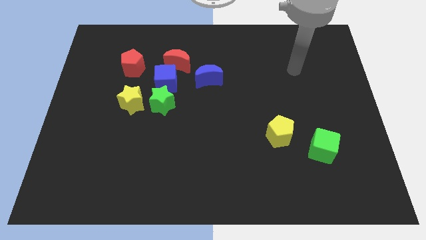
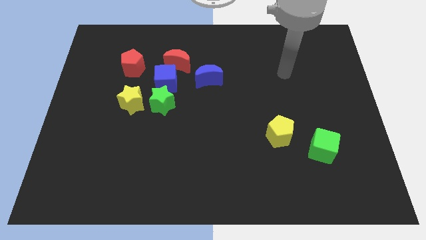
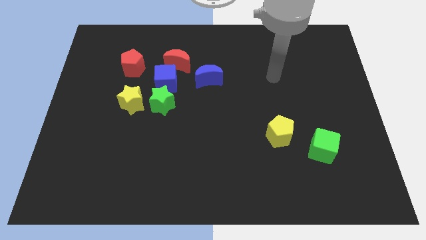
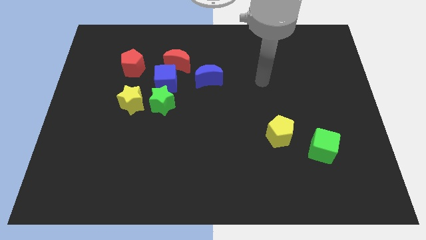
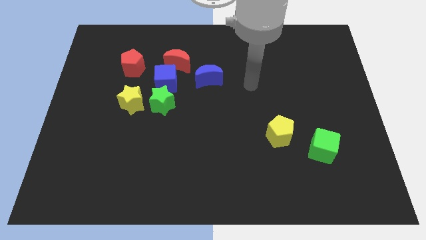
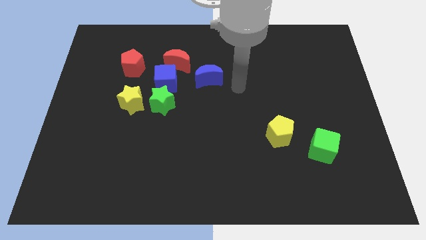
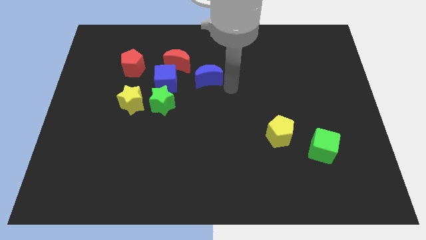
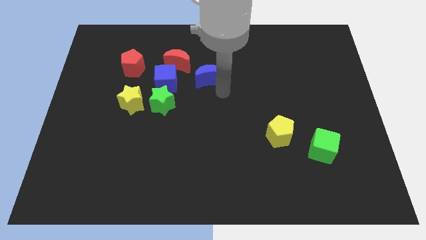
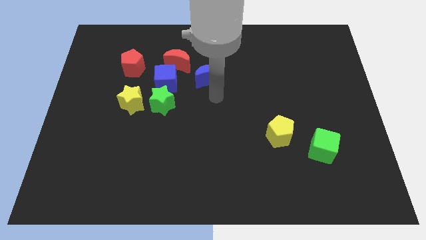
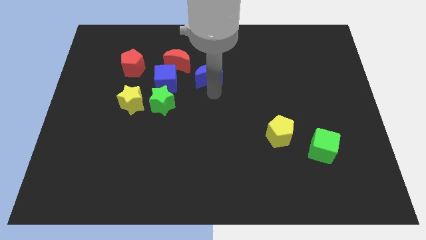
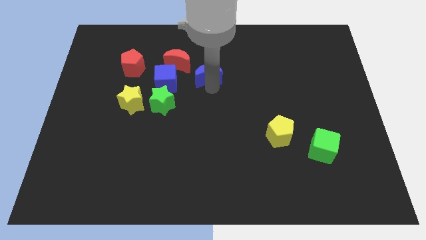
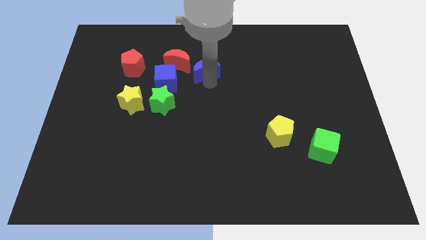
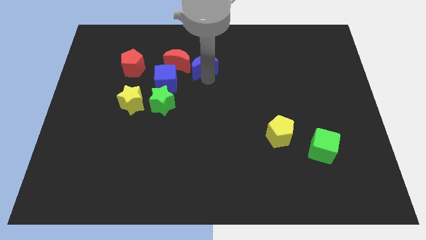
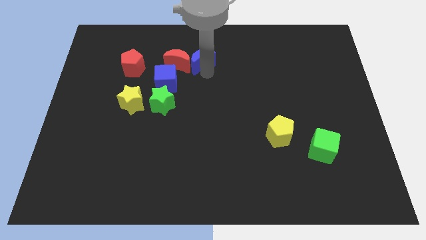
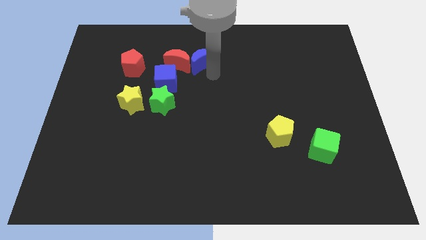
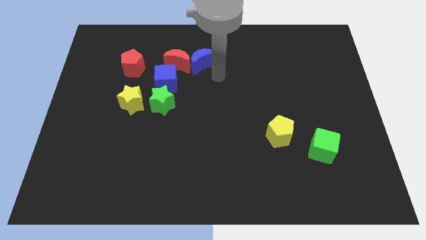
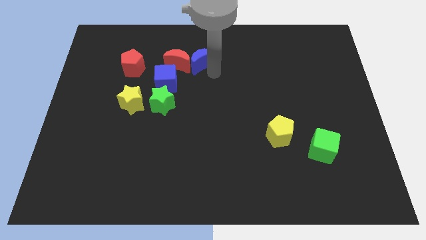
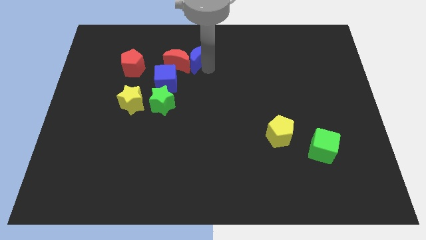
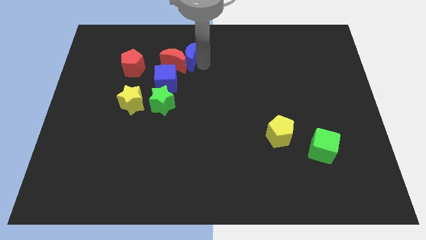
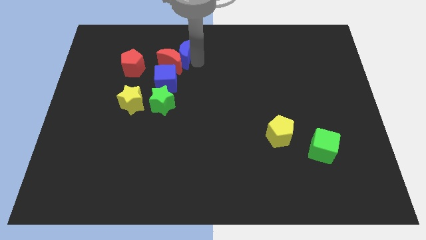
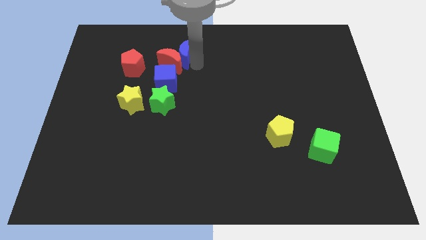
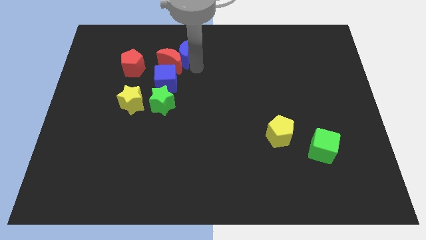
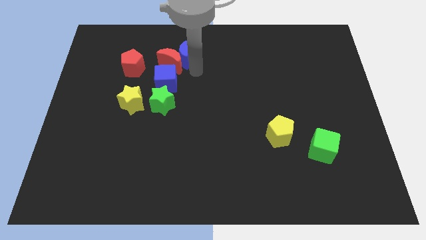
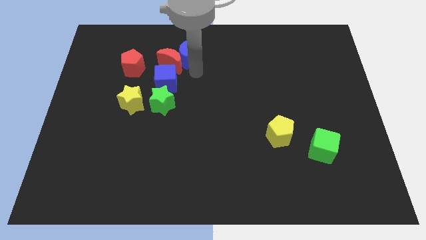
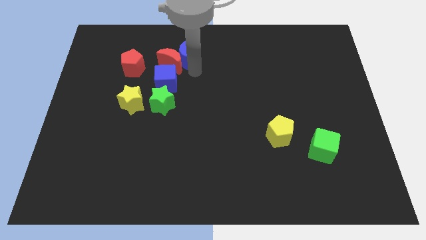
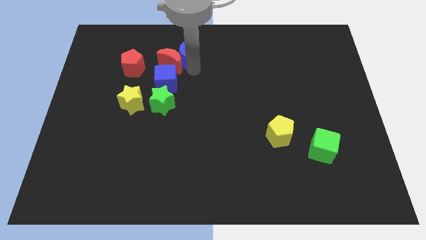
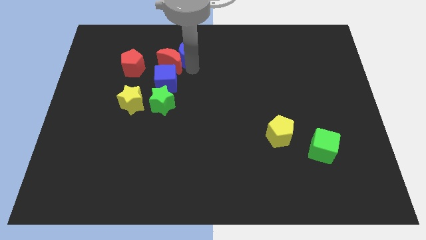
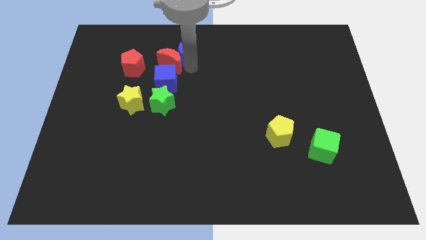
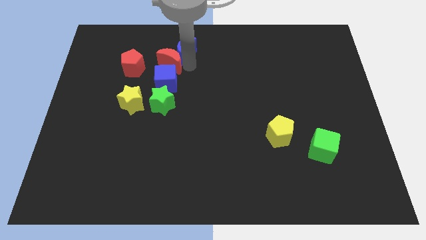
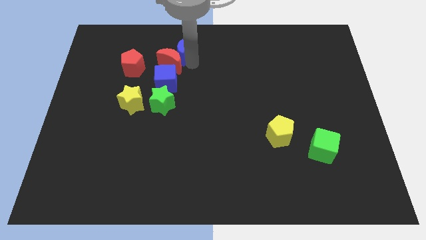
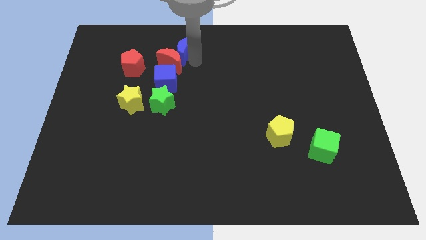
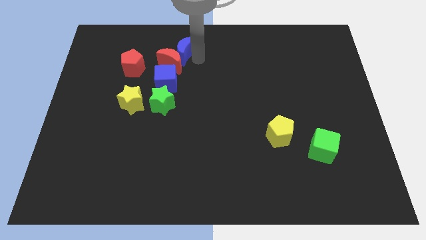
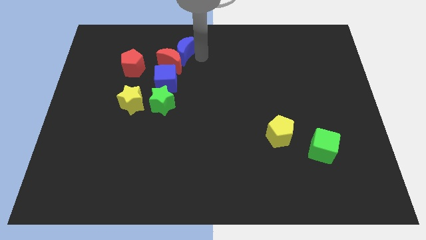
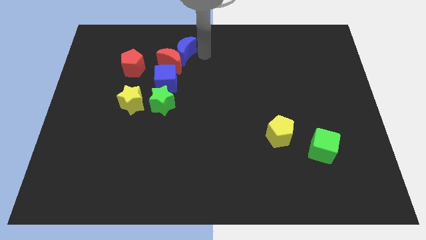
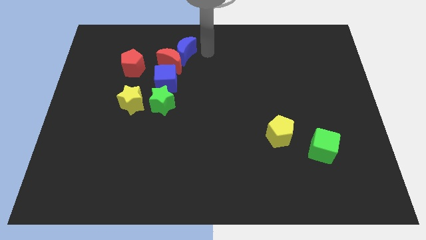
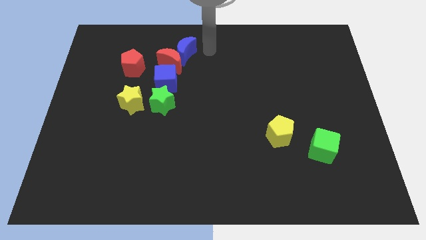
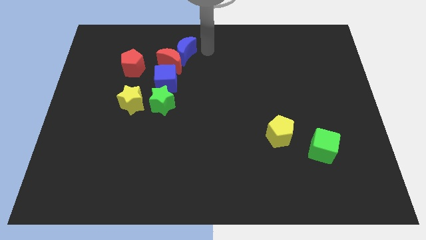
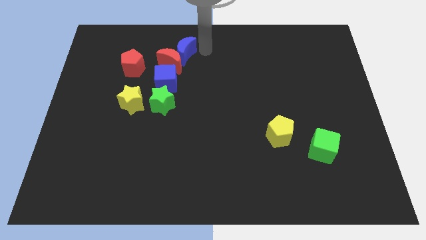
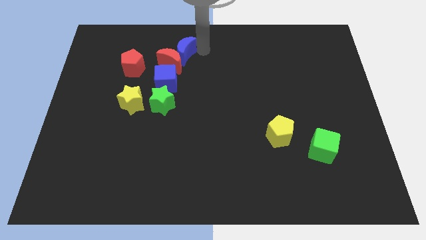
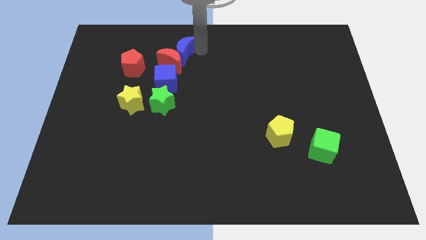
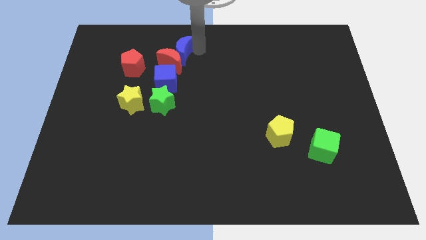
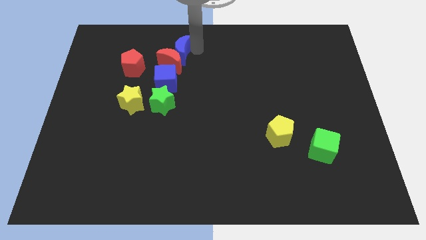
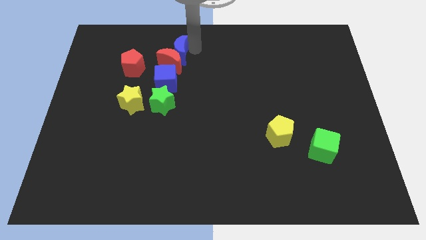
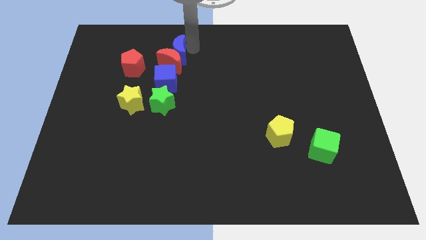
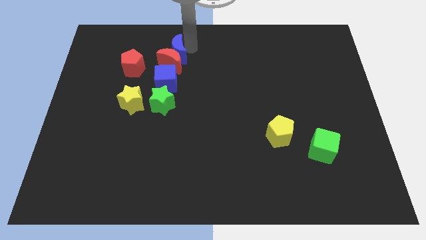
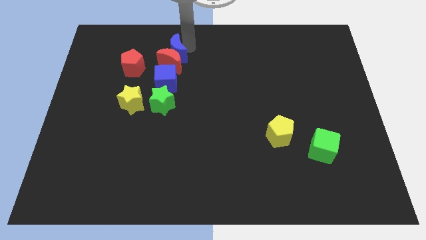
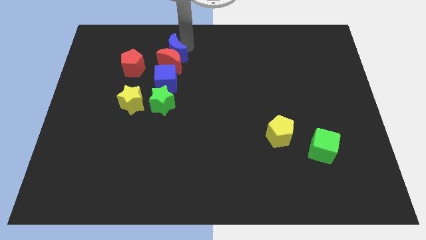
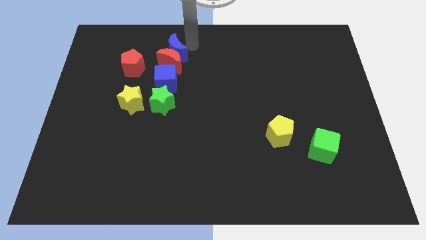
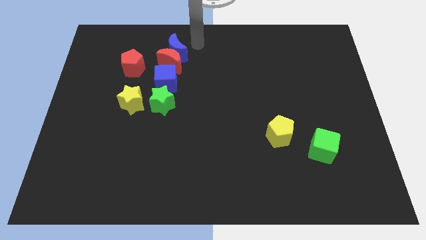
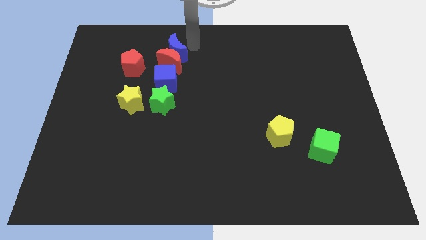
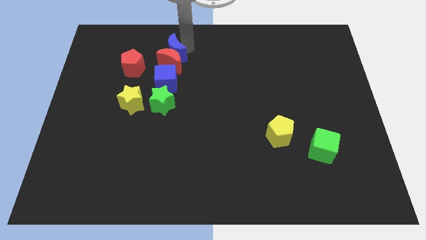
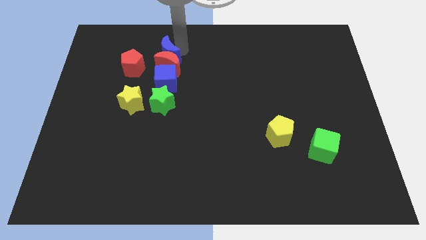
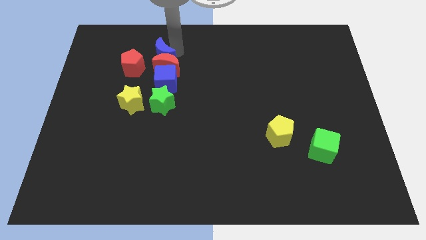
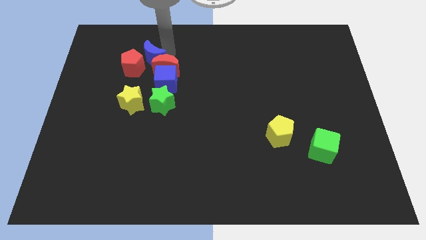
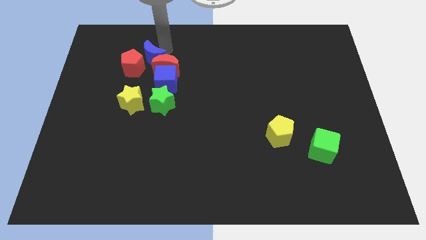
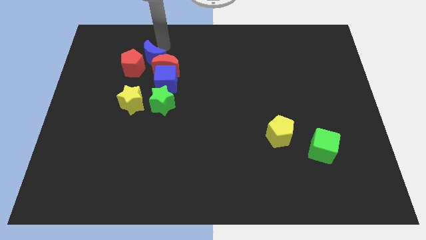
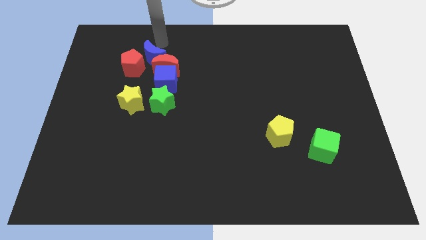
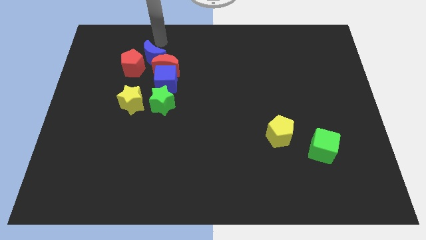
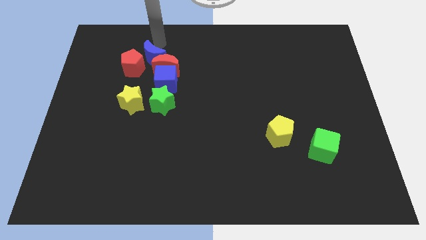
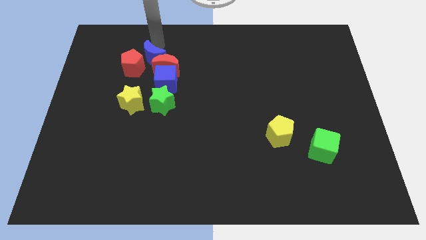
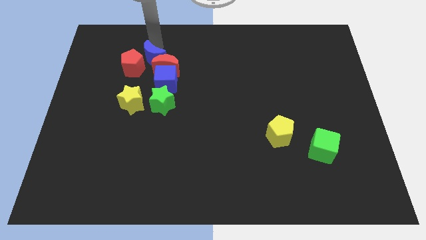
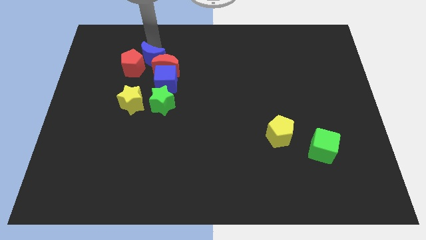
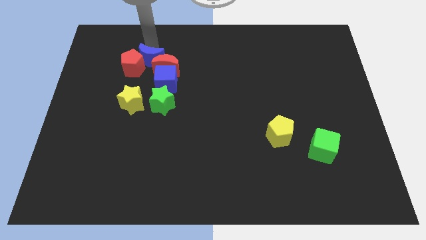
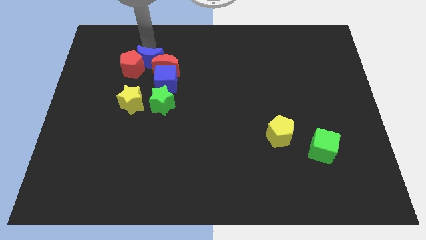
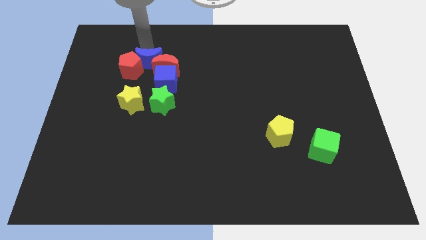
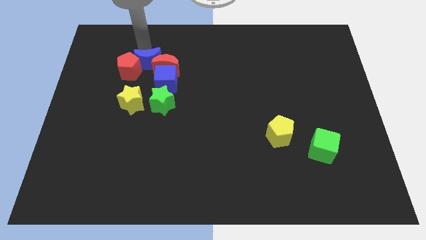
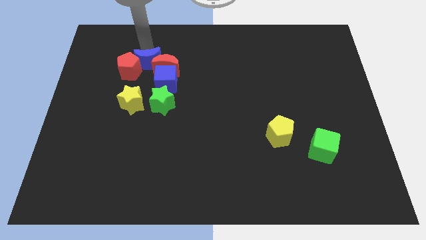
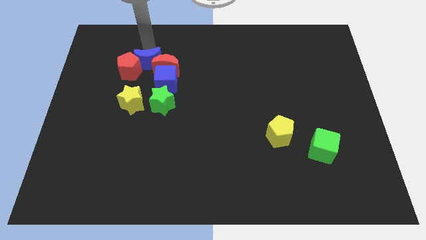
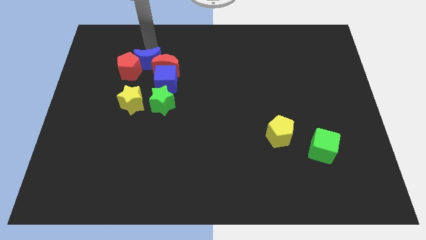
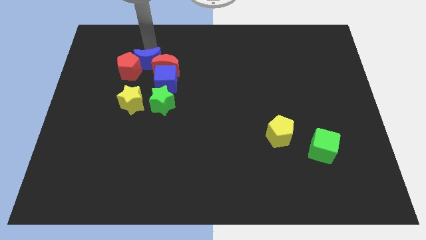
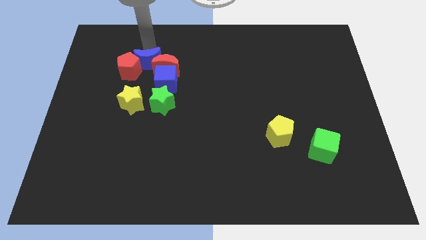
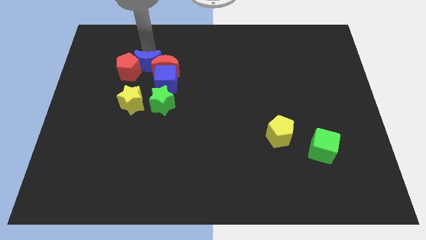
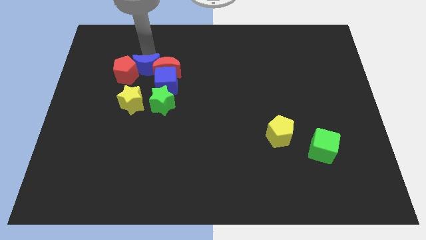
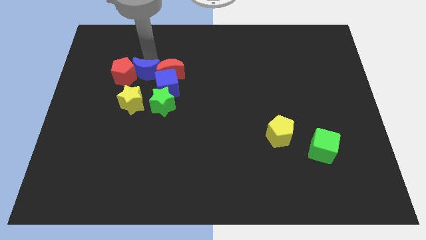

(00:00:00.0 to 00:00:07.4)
push the blue moon to the left side of the blue cube
